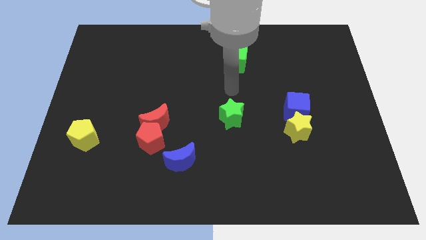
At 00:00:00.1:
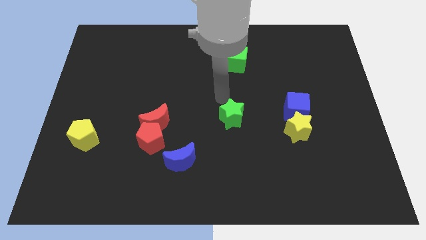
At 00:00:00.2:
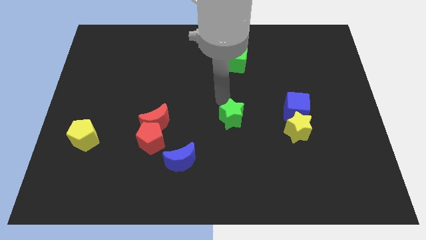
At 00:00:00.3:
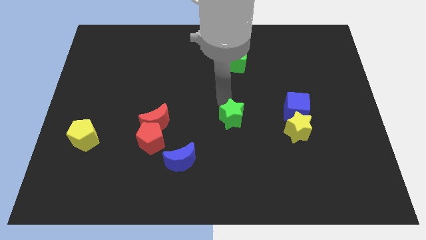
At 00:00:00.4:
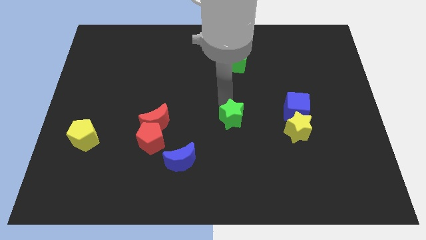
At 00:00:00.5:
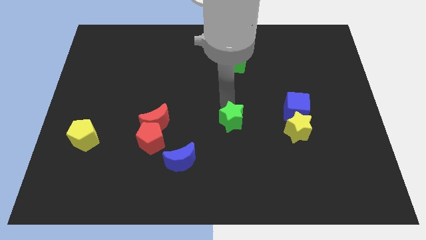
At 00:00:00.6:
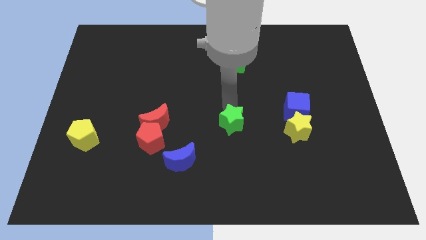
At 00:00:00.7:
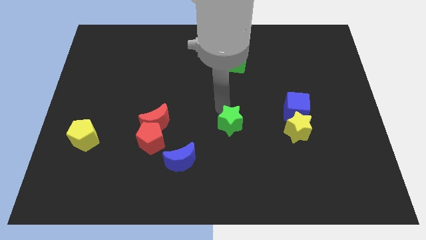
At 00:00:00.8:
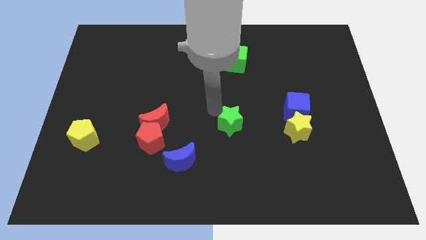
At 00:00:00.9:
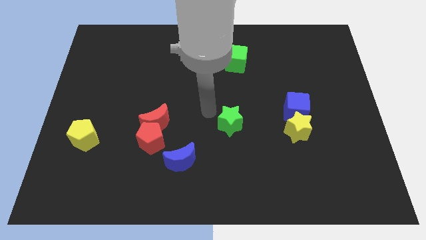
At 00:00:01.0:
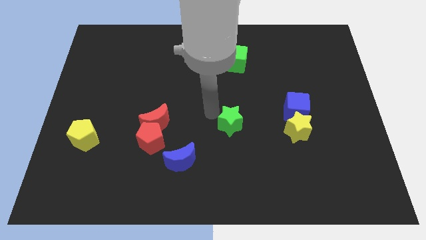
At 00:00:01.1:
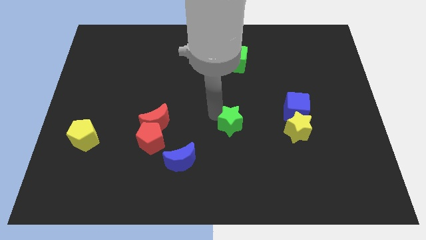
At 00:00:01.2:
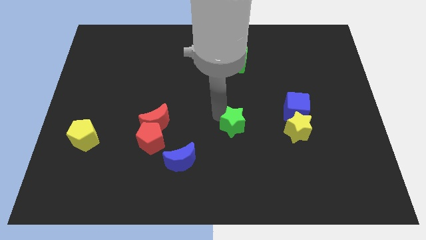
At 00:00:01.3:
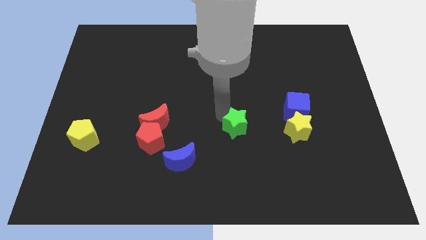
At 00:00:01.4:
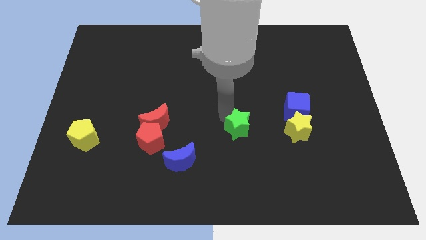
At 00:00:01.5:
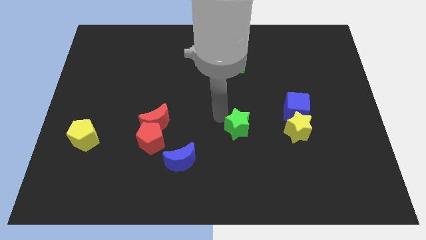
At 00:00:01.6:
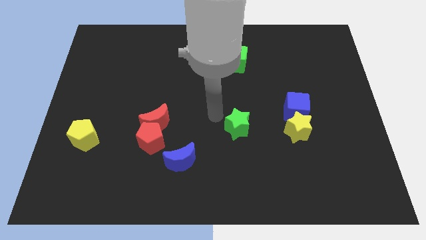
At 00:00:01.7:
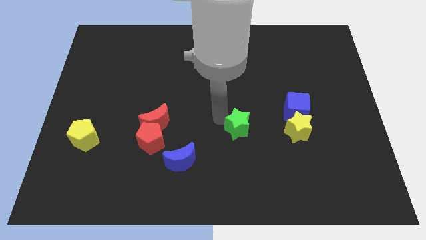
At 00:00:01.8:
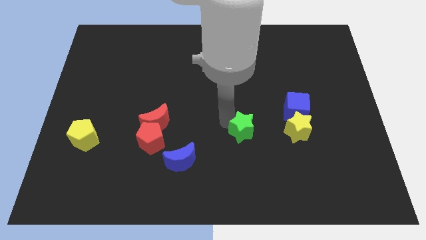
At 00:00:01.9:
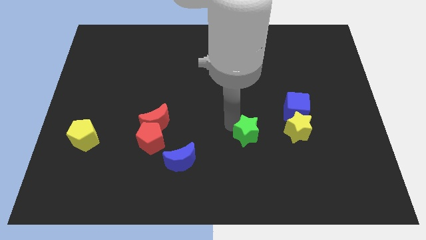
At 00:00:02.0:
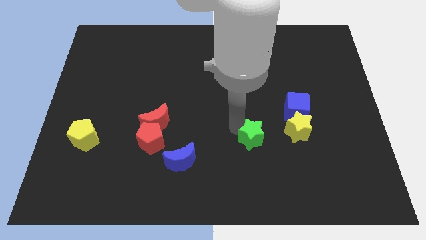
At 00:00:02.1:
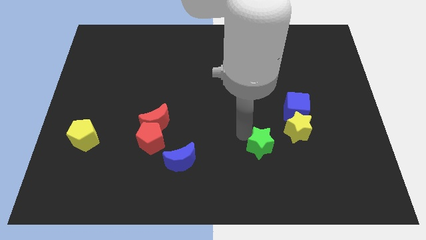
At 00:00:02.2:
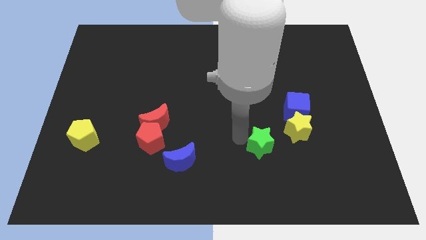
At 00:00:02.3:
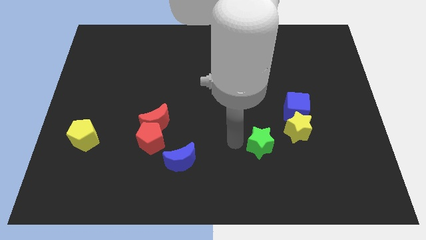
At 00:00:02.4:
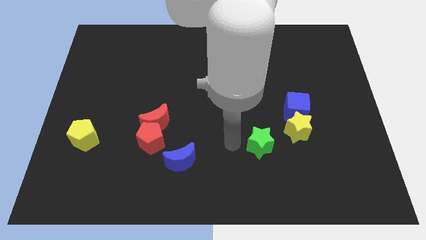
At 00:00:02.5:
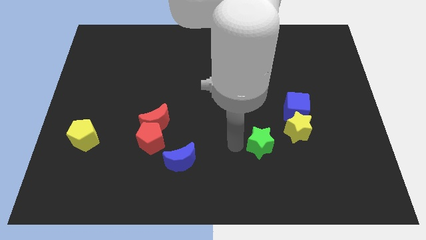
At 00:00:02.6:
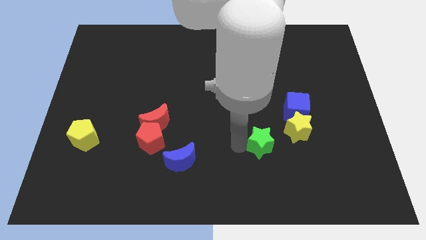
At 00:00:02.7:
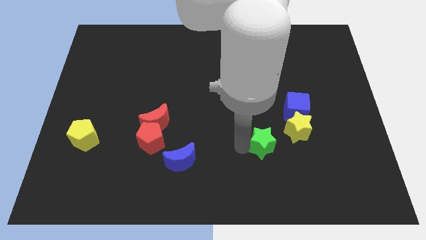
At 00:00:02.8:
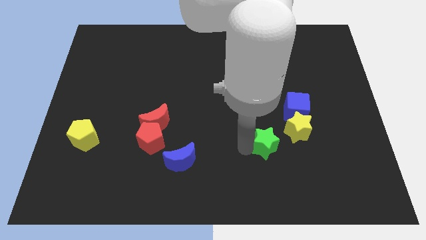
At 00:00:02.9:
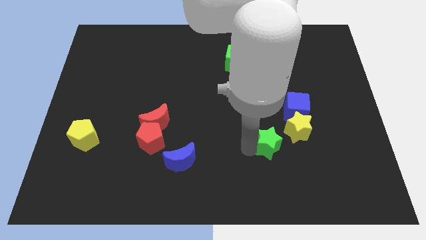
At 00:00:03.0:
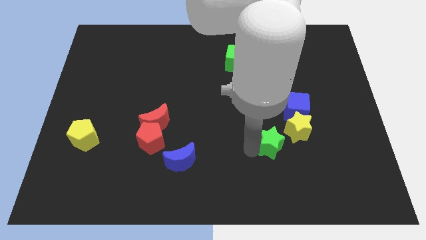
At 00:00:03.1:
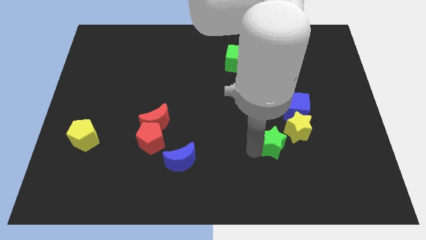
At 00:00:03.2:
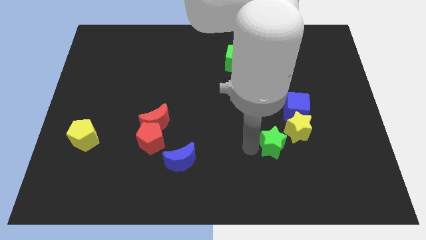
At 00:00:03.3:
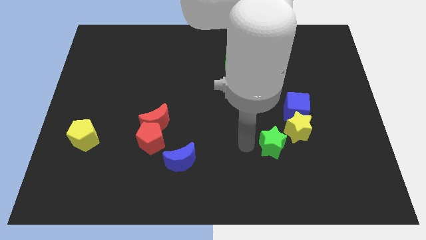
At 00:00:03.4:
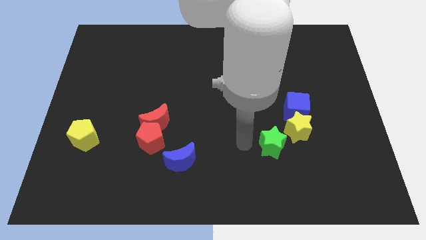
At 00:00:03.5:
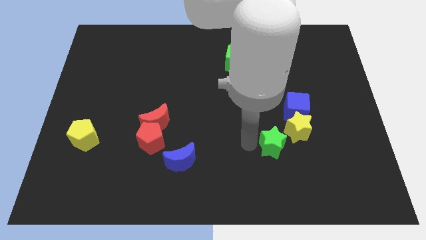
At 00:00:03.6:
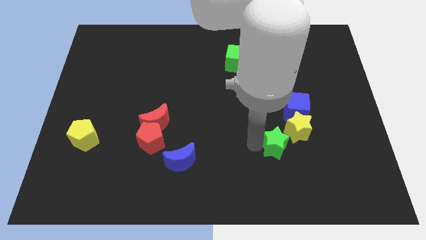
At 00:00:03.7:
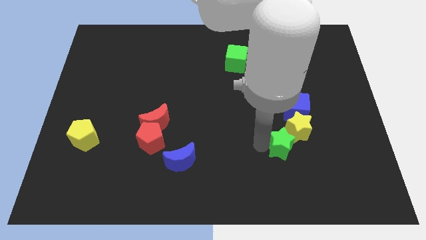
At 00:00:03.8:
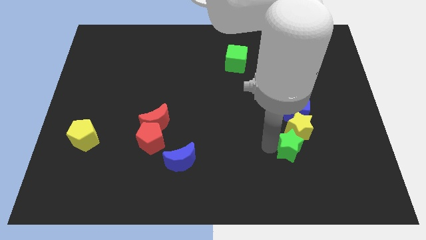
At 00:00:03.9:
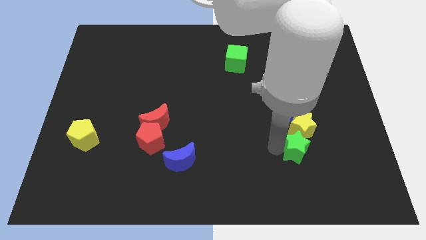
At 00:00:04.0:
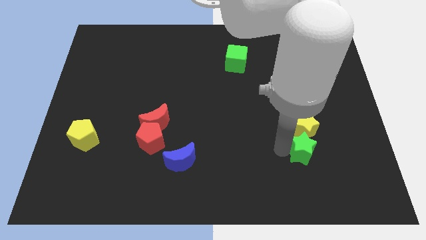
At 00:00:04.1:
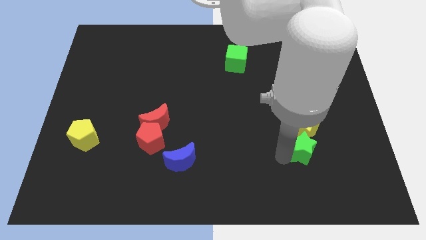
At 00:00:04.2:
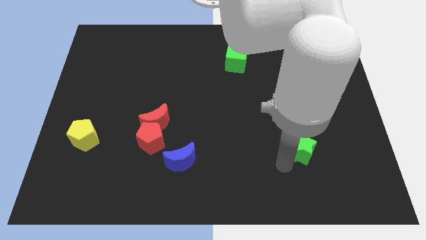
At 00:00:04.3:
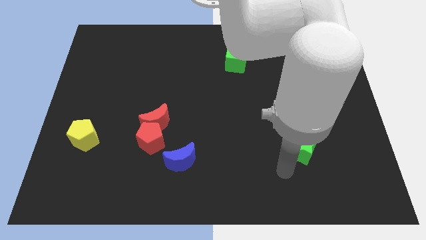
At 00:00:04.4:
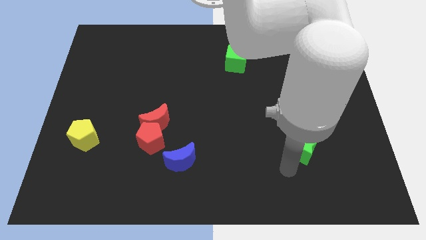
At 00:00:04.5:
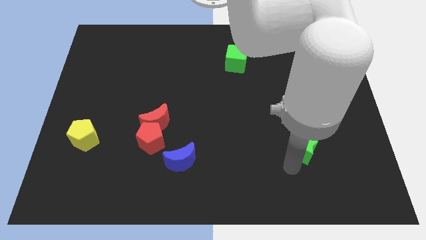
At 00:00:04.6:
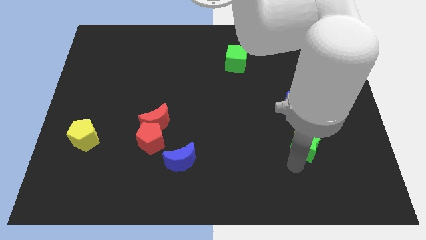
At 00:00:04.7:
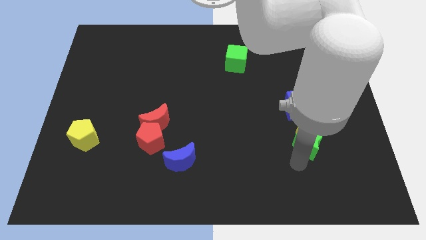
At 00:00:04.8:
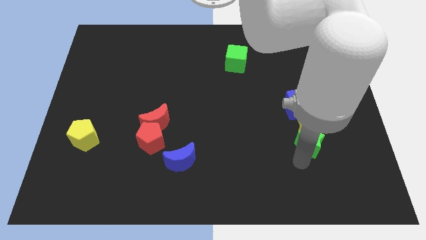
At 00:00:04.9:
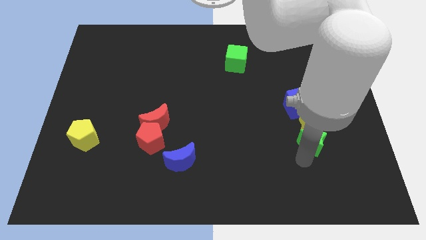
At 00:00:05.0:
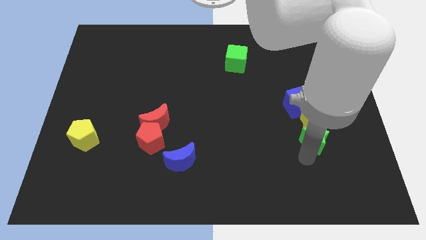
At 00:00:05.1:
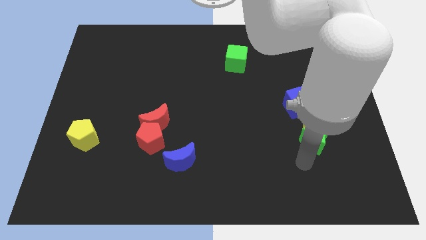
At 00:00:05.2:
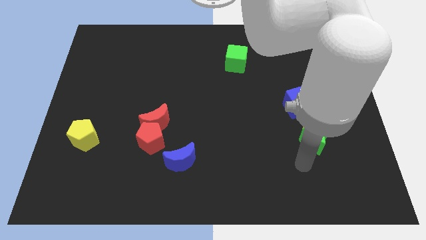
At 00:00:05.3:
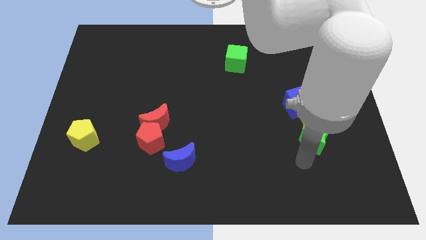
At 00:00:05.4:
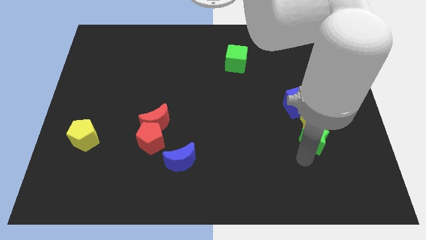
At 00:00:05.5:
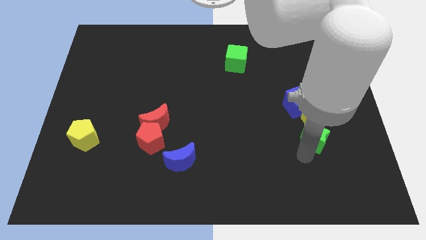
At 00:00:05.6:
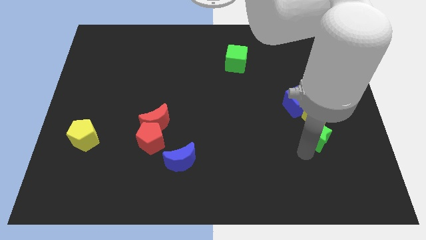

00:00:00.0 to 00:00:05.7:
put the green star to the bottom right of the blue cube

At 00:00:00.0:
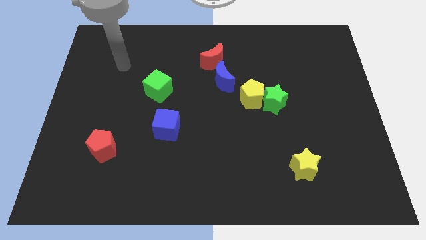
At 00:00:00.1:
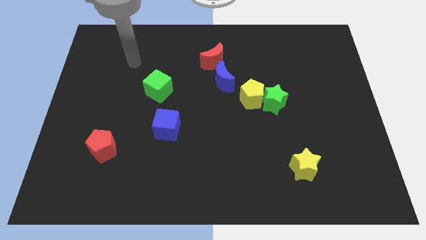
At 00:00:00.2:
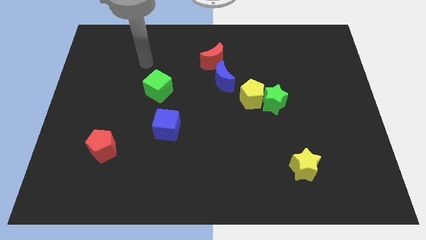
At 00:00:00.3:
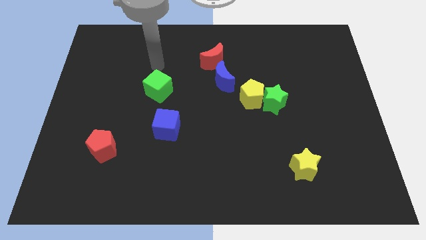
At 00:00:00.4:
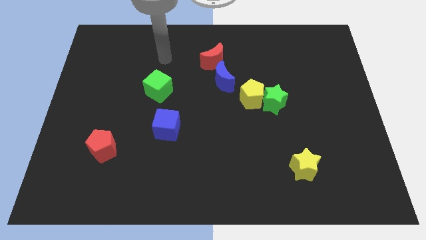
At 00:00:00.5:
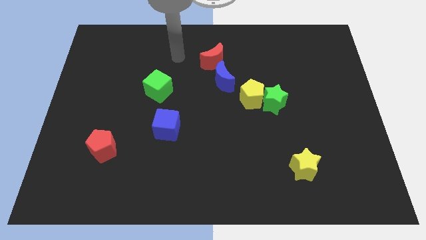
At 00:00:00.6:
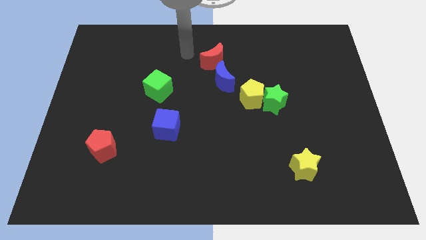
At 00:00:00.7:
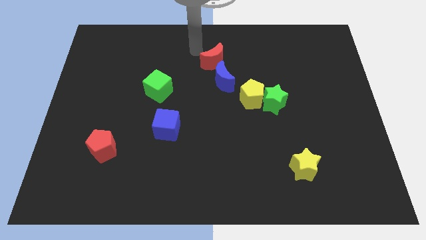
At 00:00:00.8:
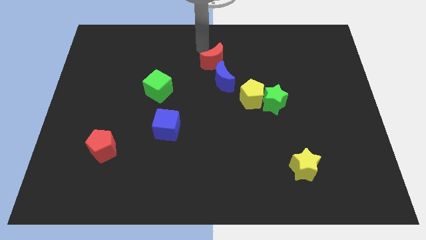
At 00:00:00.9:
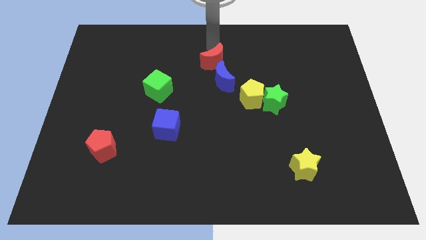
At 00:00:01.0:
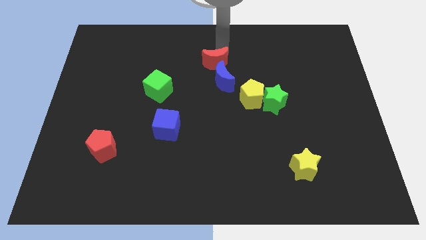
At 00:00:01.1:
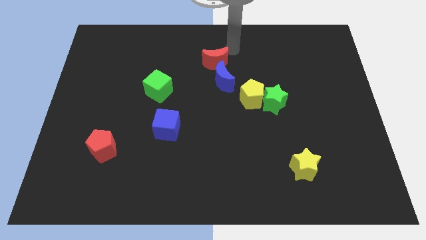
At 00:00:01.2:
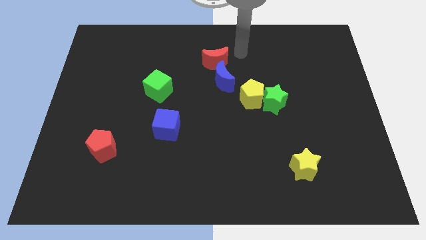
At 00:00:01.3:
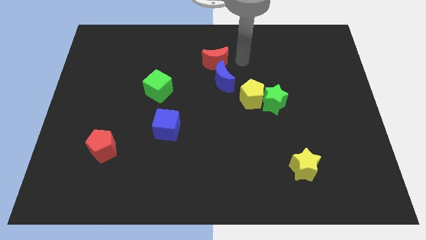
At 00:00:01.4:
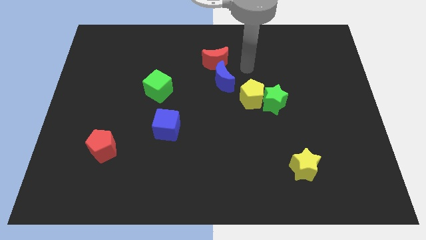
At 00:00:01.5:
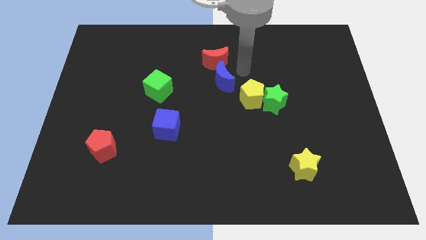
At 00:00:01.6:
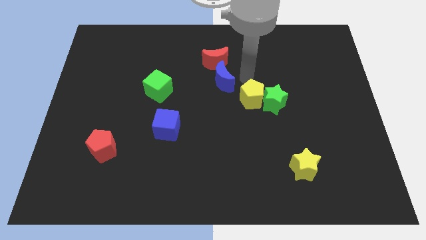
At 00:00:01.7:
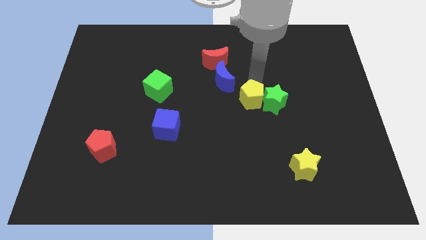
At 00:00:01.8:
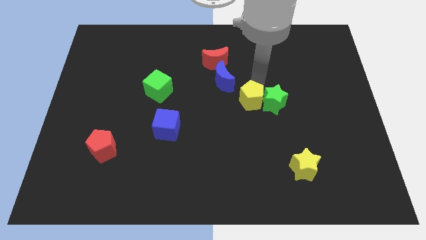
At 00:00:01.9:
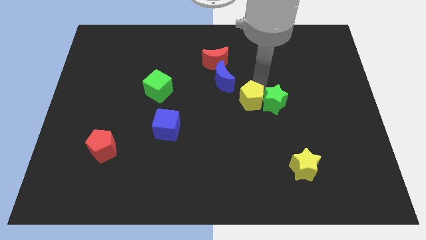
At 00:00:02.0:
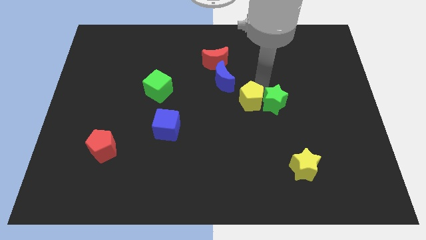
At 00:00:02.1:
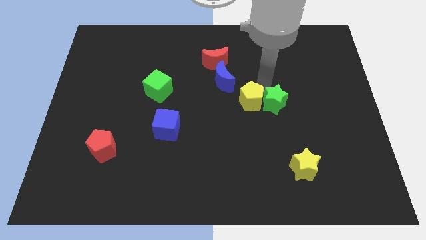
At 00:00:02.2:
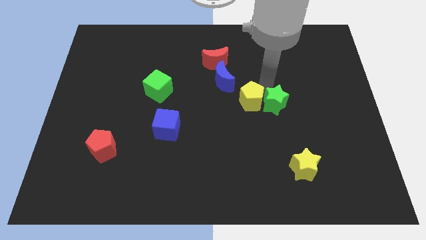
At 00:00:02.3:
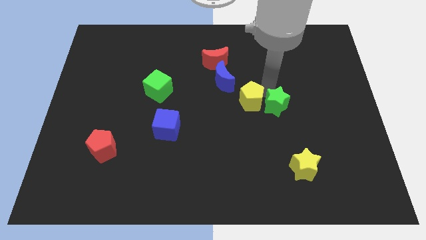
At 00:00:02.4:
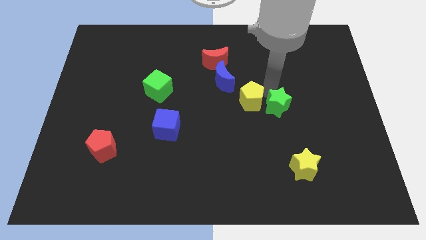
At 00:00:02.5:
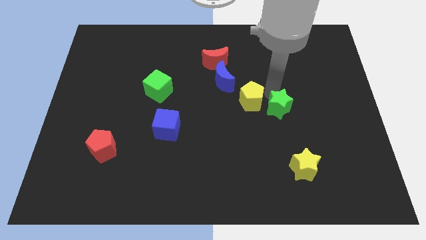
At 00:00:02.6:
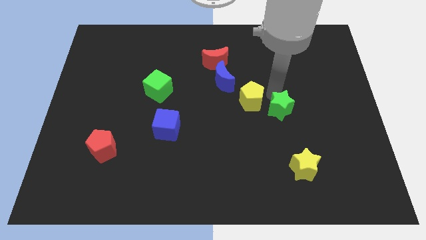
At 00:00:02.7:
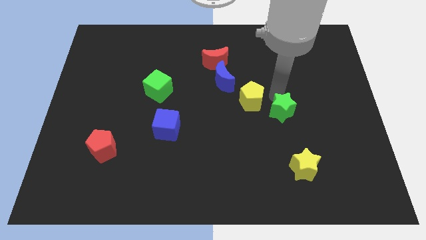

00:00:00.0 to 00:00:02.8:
put the green star to the top side of the yellow star
